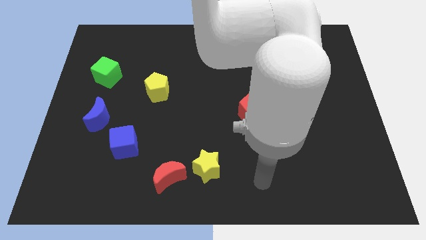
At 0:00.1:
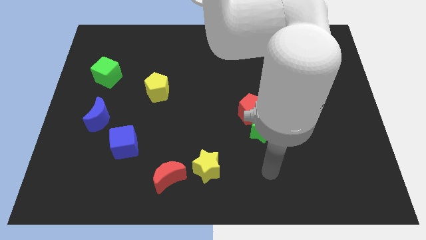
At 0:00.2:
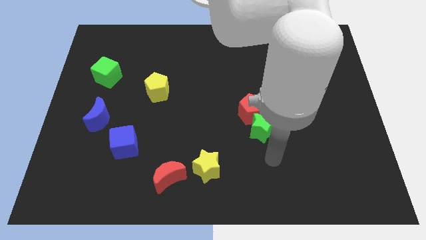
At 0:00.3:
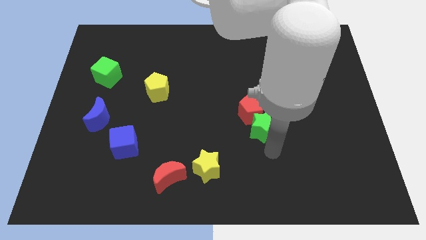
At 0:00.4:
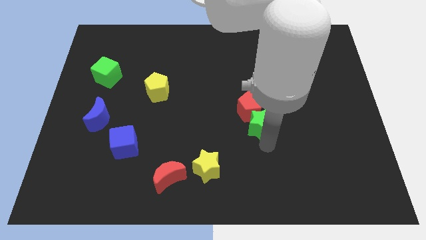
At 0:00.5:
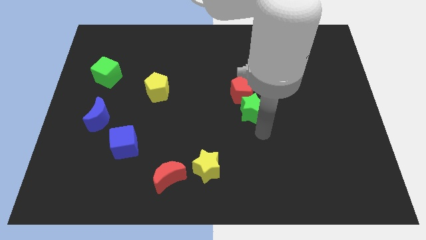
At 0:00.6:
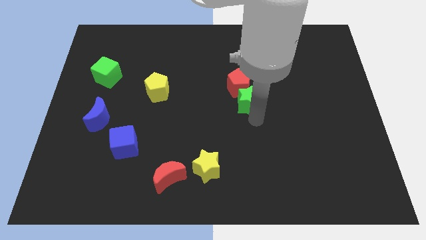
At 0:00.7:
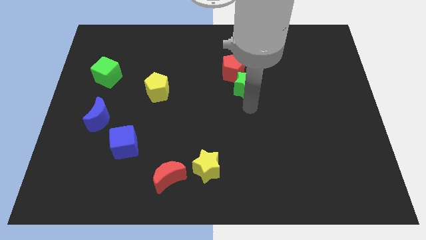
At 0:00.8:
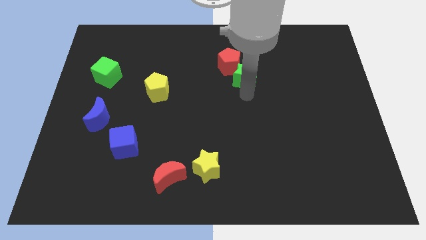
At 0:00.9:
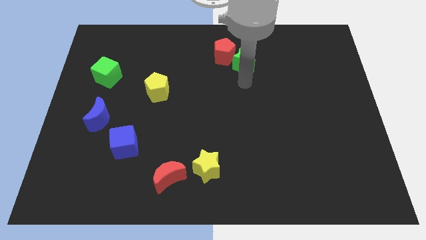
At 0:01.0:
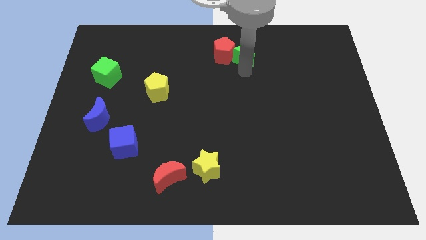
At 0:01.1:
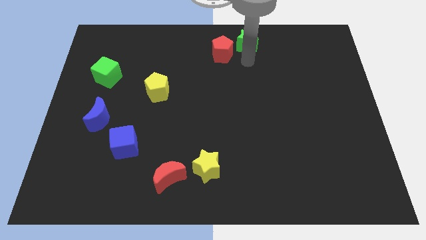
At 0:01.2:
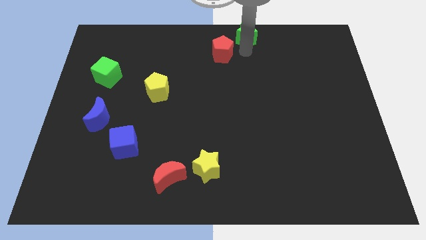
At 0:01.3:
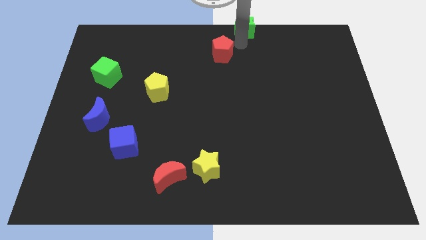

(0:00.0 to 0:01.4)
move the red pentagon away from the green star

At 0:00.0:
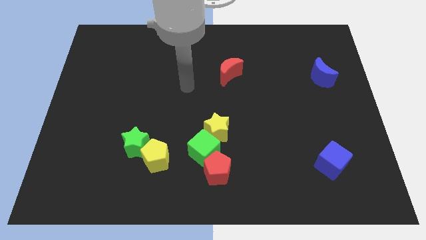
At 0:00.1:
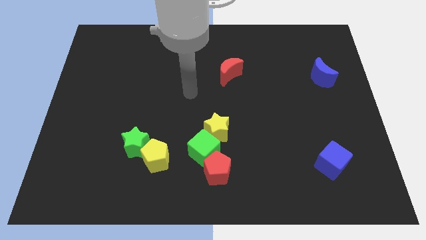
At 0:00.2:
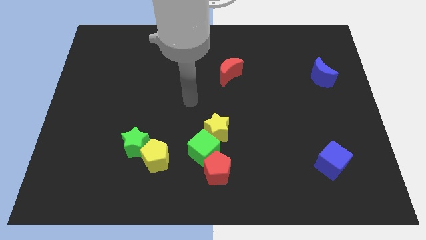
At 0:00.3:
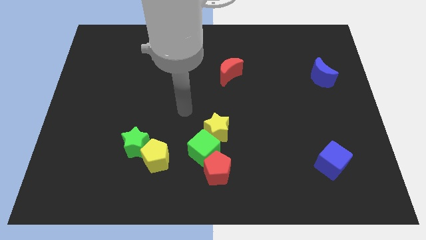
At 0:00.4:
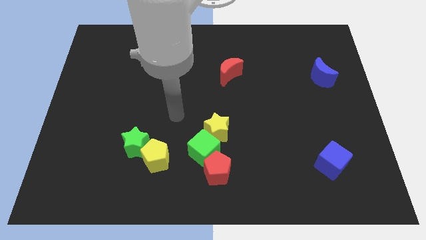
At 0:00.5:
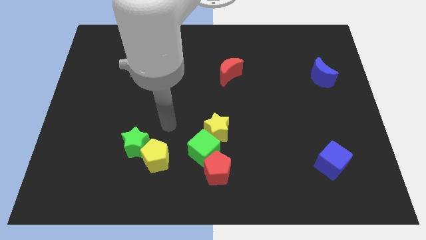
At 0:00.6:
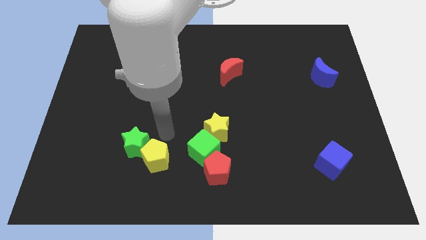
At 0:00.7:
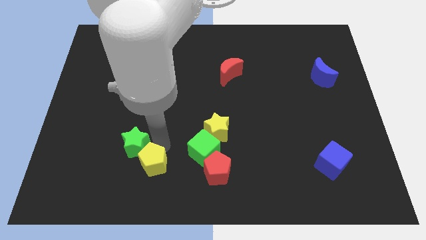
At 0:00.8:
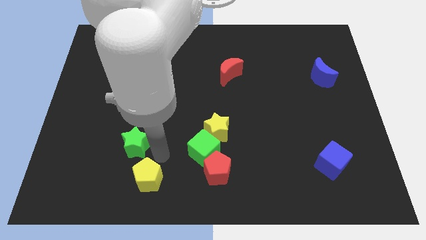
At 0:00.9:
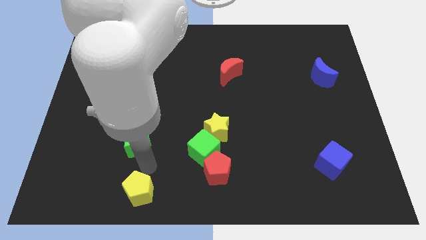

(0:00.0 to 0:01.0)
move the green star away from the yellow pentagon

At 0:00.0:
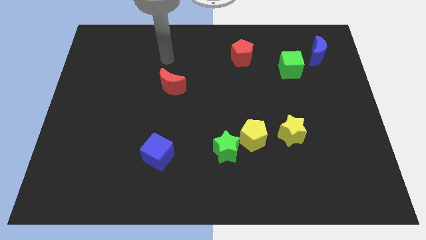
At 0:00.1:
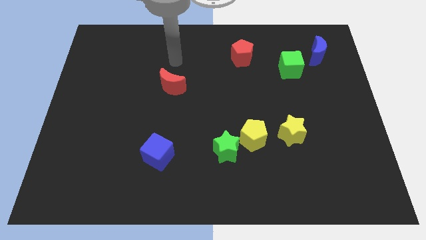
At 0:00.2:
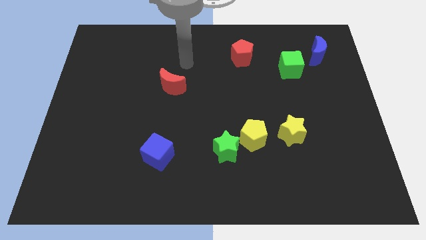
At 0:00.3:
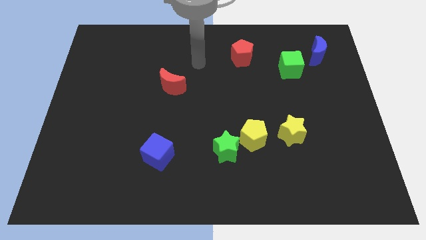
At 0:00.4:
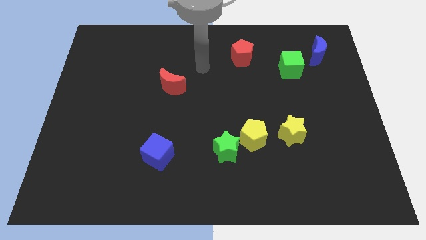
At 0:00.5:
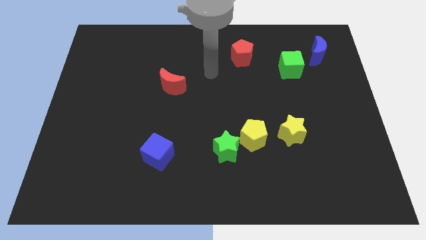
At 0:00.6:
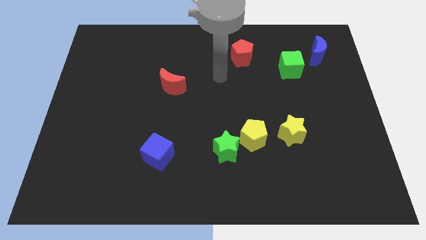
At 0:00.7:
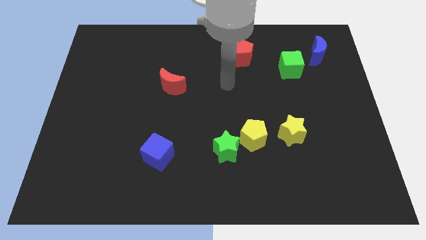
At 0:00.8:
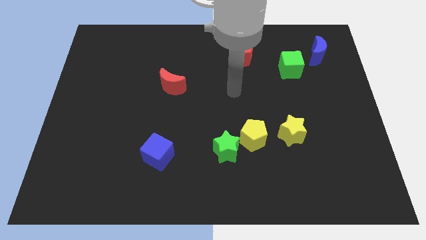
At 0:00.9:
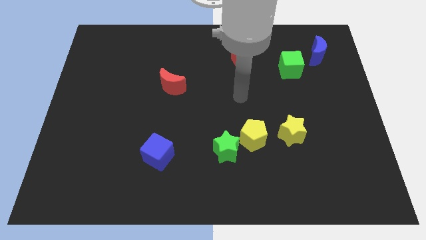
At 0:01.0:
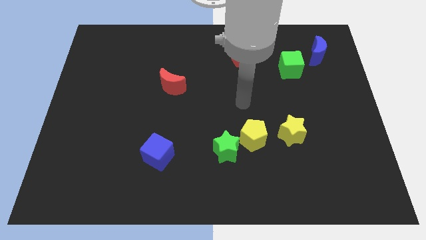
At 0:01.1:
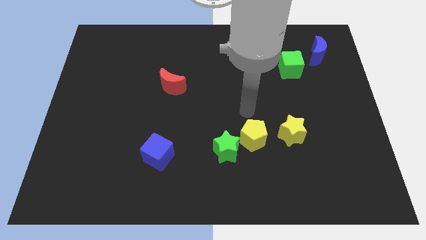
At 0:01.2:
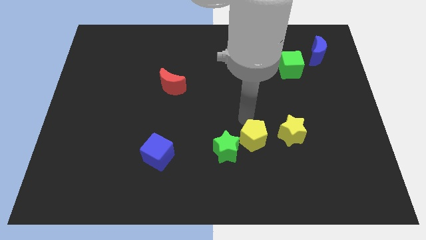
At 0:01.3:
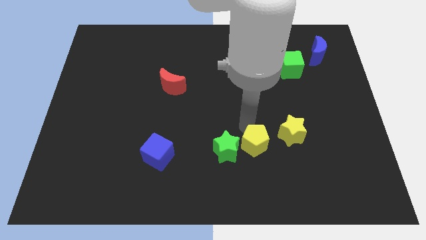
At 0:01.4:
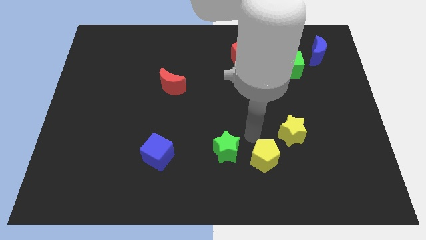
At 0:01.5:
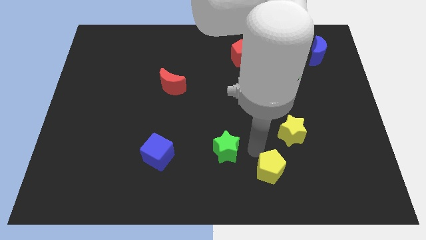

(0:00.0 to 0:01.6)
separate the green star from the yellow pentagon

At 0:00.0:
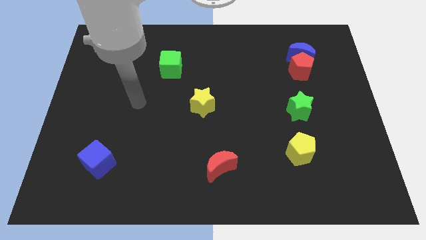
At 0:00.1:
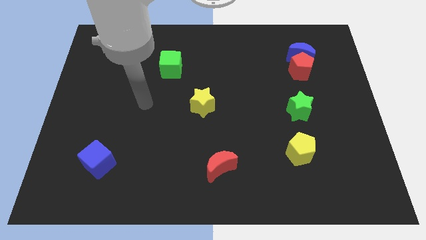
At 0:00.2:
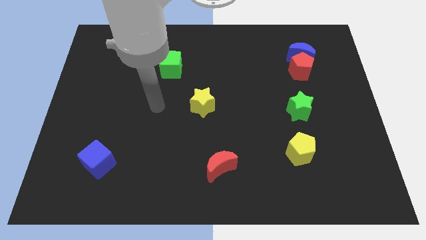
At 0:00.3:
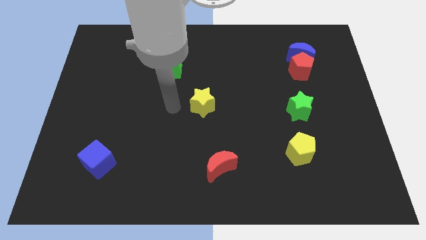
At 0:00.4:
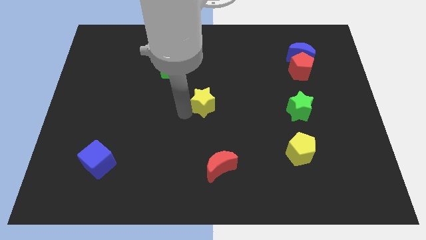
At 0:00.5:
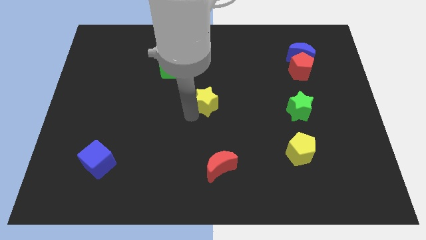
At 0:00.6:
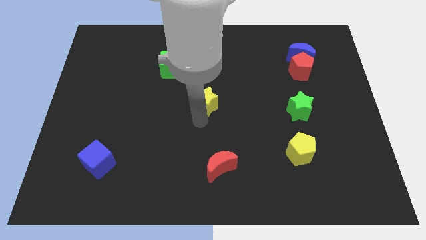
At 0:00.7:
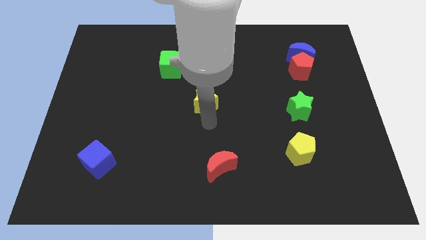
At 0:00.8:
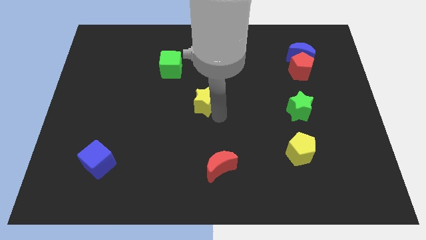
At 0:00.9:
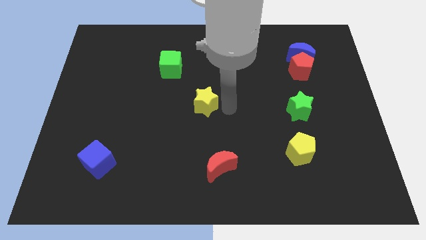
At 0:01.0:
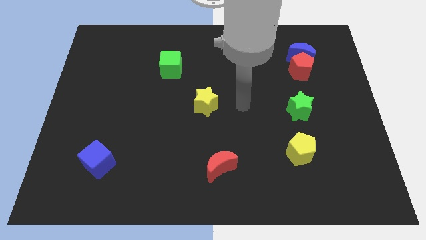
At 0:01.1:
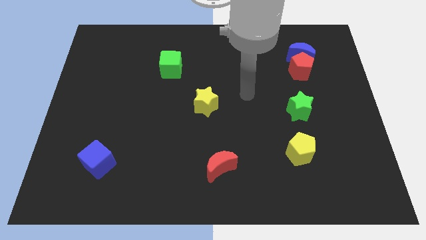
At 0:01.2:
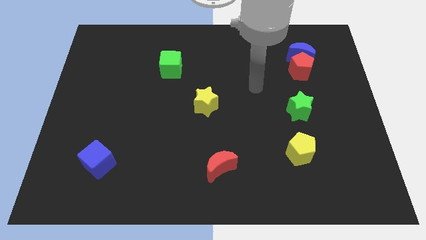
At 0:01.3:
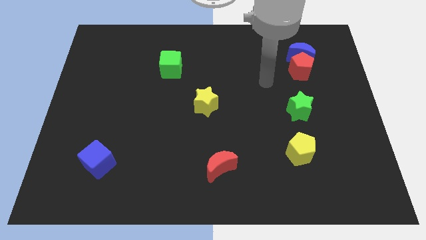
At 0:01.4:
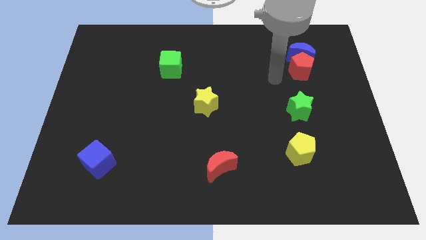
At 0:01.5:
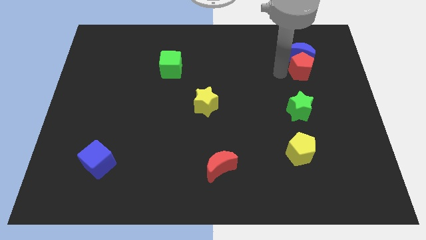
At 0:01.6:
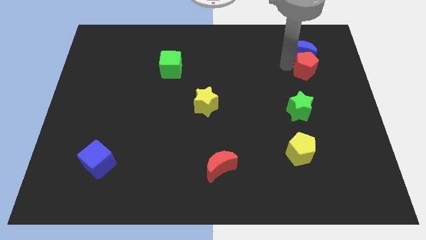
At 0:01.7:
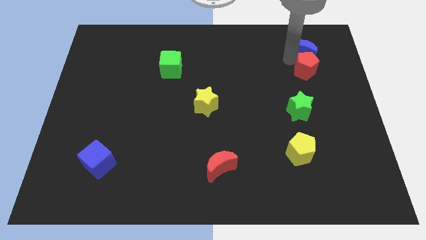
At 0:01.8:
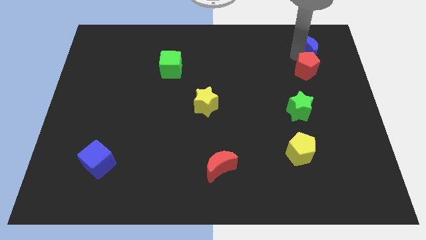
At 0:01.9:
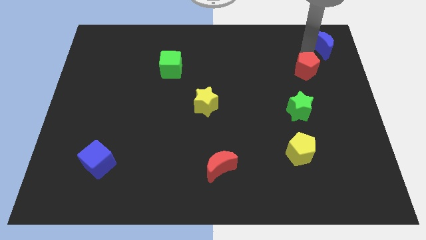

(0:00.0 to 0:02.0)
move the red pentagon away from the blue moon

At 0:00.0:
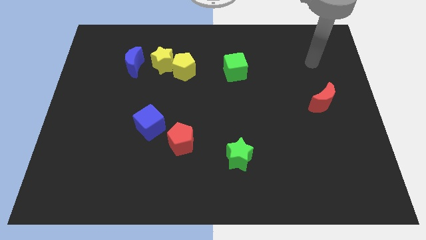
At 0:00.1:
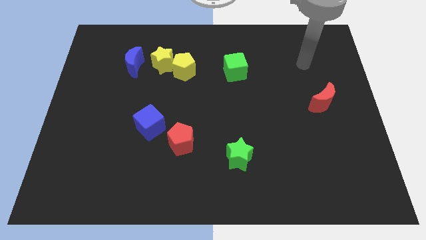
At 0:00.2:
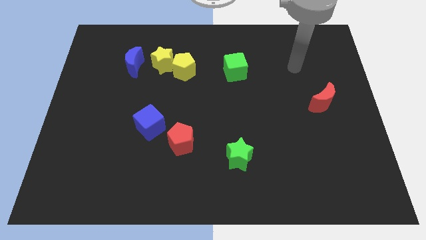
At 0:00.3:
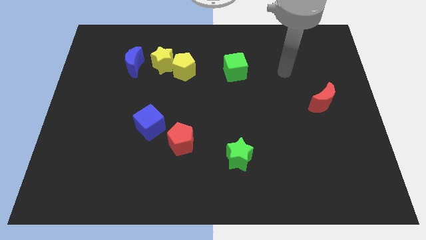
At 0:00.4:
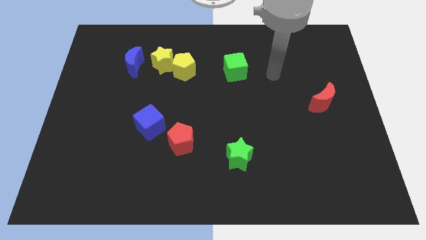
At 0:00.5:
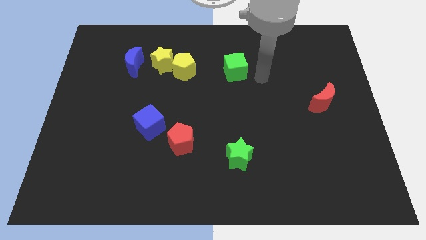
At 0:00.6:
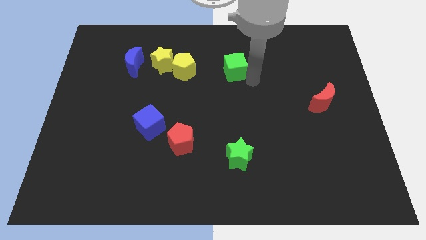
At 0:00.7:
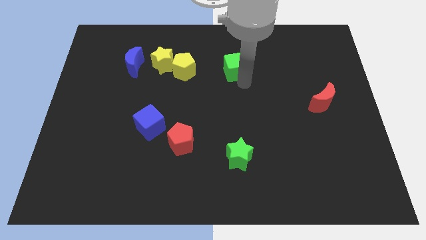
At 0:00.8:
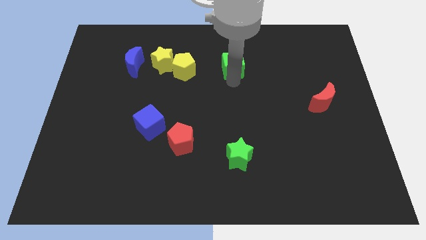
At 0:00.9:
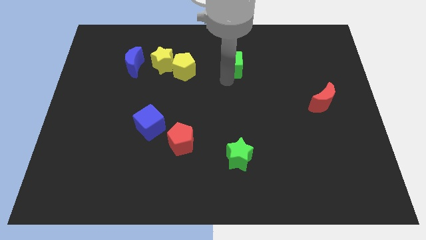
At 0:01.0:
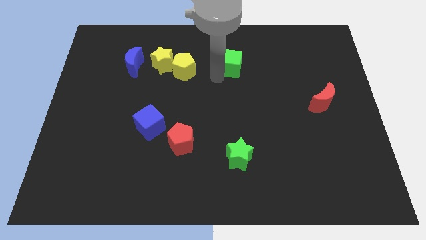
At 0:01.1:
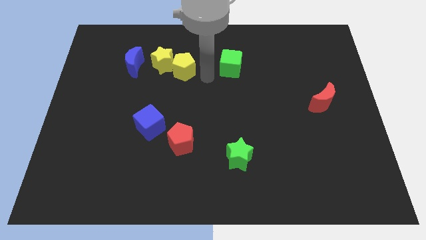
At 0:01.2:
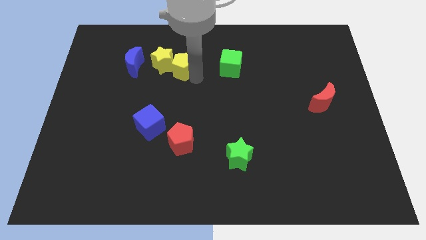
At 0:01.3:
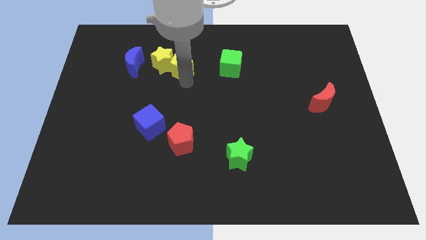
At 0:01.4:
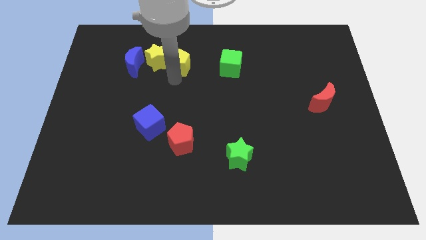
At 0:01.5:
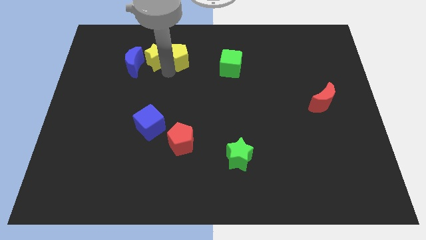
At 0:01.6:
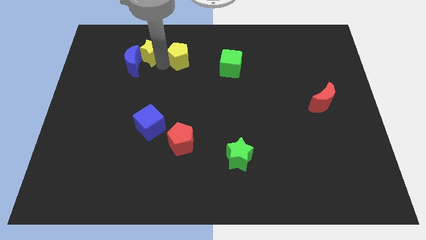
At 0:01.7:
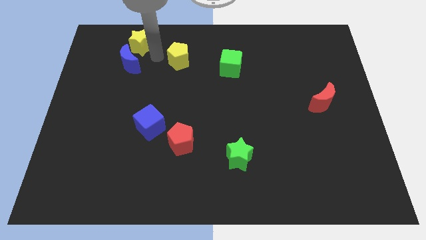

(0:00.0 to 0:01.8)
pull the yellow pentagon apart from the yellow star

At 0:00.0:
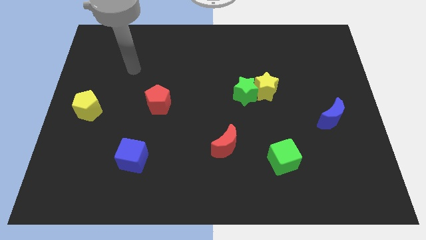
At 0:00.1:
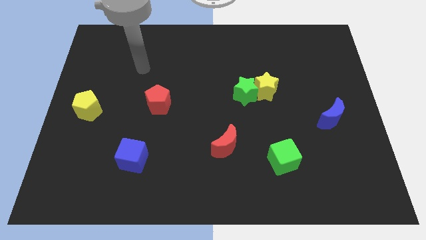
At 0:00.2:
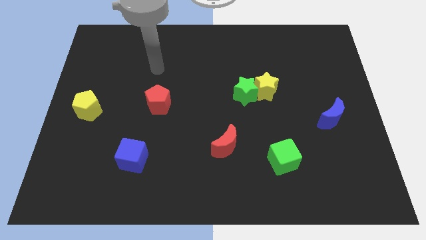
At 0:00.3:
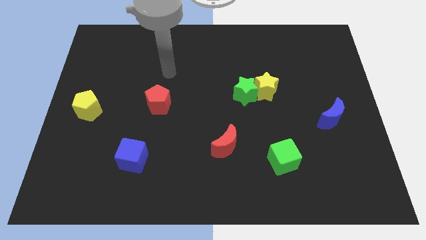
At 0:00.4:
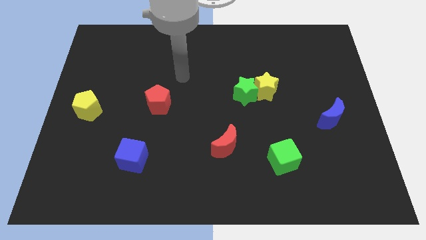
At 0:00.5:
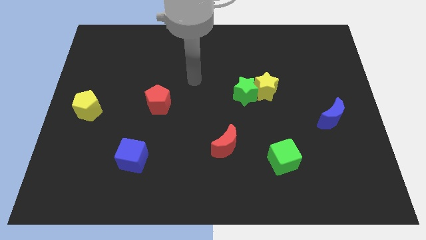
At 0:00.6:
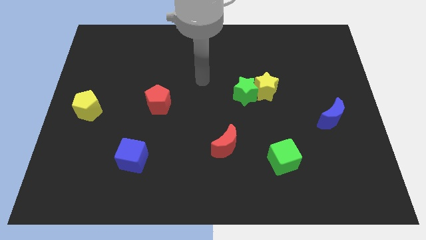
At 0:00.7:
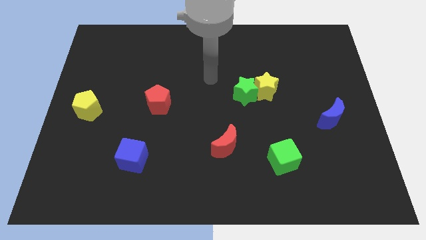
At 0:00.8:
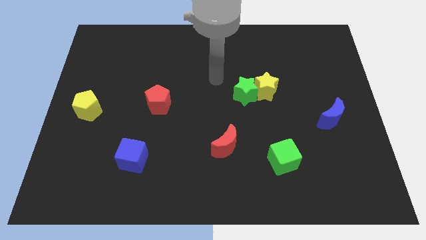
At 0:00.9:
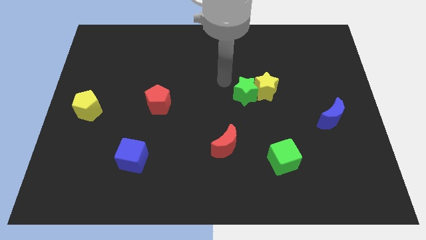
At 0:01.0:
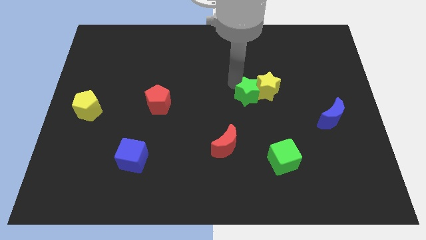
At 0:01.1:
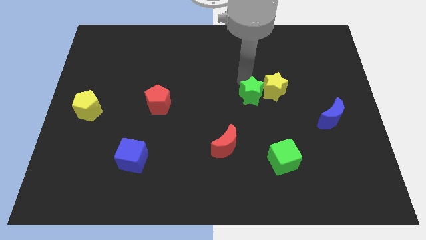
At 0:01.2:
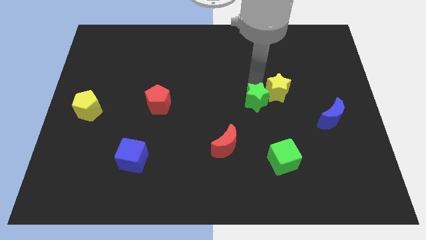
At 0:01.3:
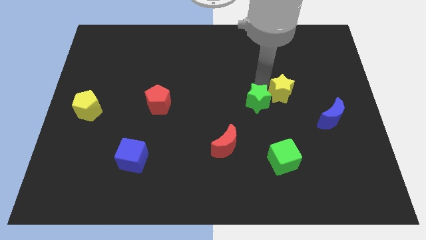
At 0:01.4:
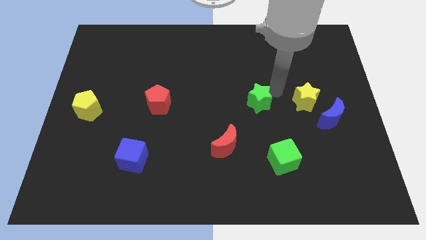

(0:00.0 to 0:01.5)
separate the green star from the yellow star
